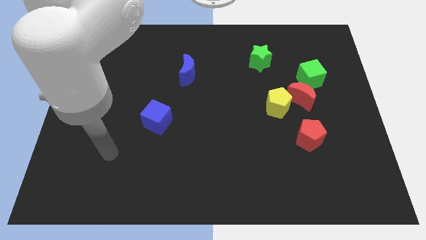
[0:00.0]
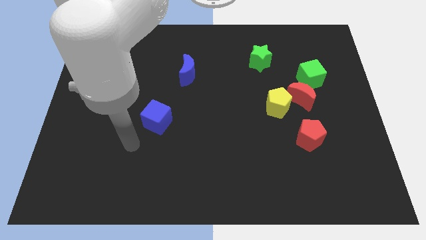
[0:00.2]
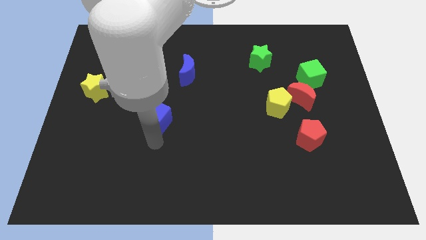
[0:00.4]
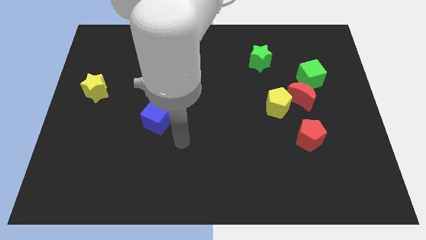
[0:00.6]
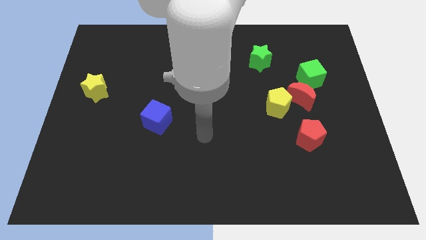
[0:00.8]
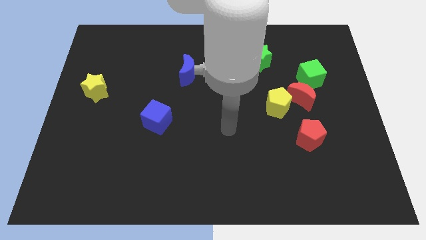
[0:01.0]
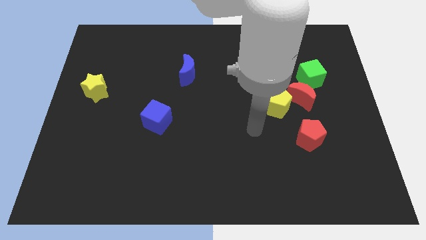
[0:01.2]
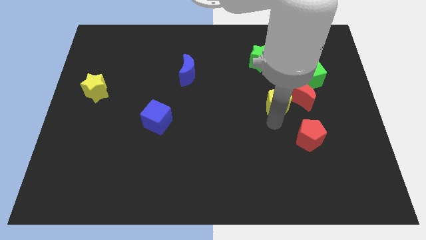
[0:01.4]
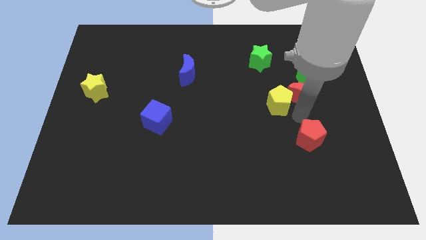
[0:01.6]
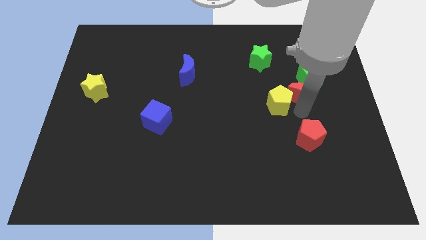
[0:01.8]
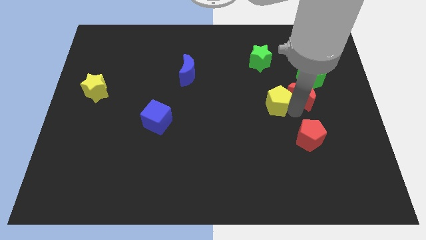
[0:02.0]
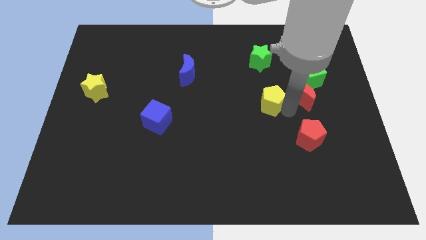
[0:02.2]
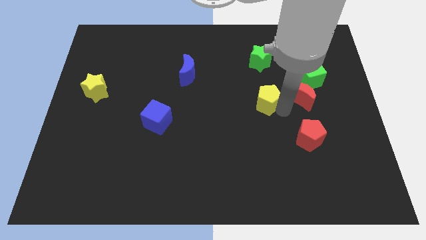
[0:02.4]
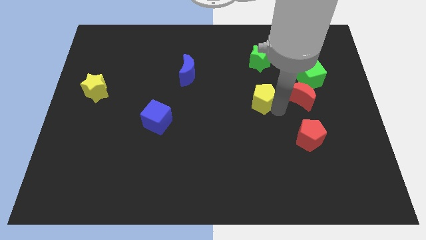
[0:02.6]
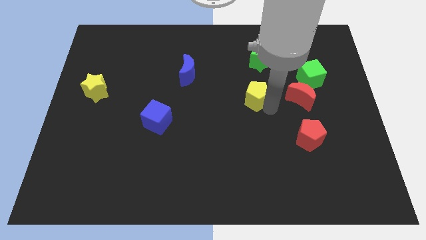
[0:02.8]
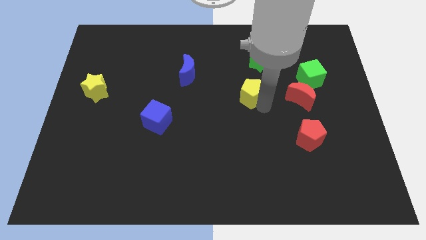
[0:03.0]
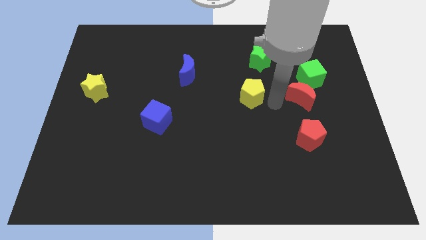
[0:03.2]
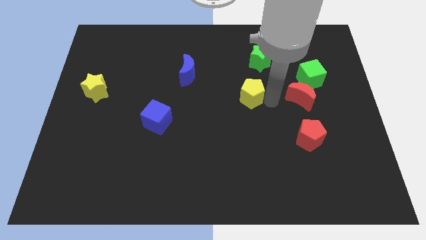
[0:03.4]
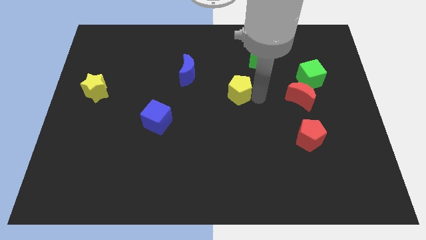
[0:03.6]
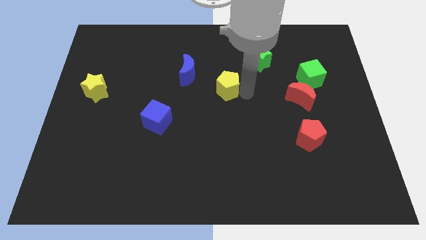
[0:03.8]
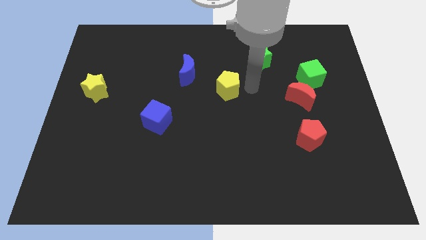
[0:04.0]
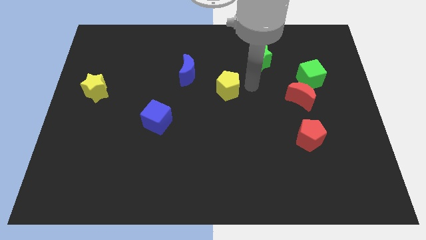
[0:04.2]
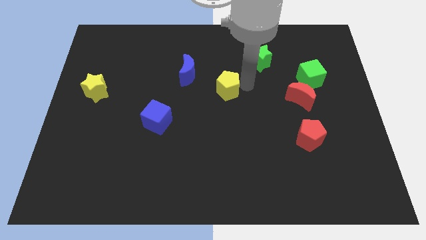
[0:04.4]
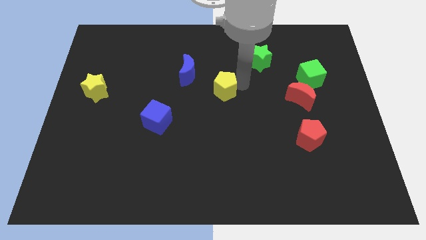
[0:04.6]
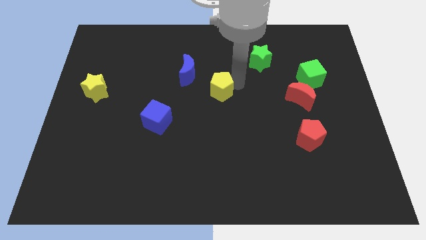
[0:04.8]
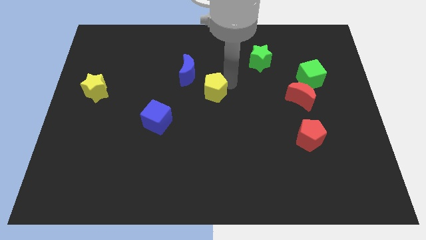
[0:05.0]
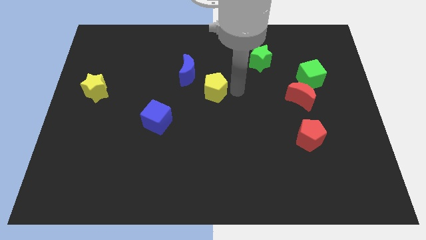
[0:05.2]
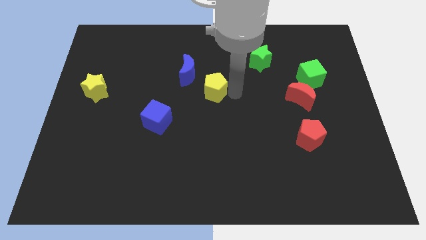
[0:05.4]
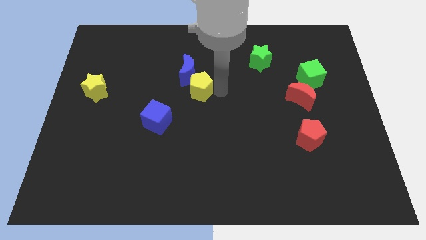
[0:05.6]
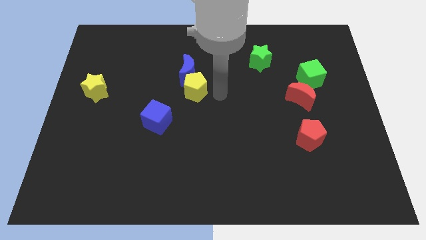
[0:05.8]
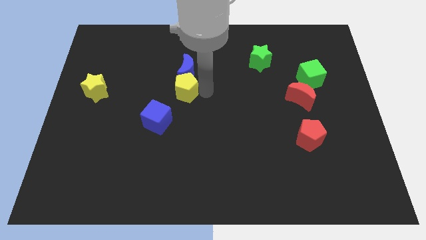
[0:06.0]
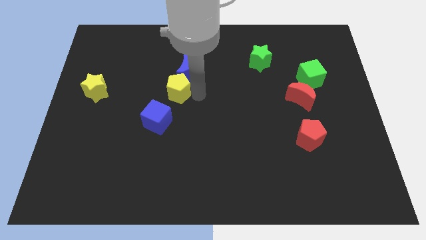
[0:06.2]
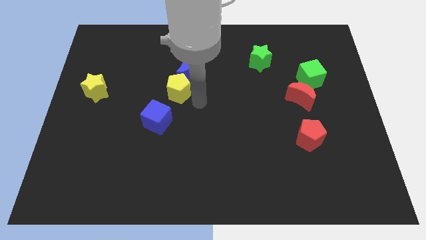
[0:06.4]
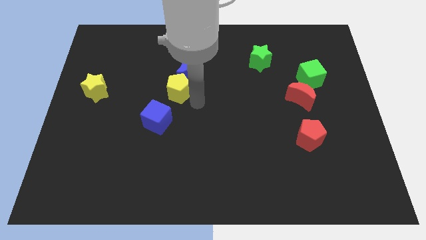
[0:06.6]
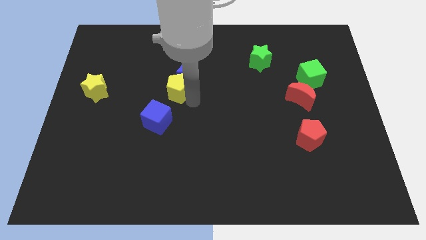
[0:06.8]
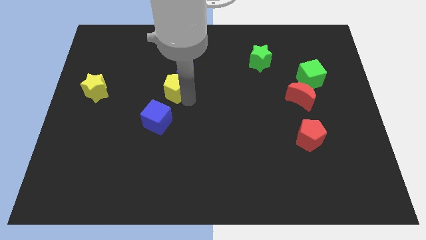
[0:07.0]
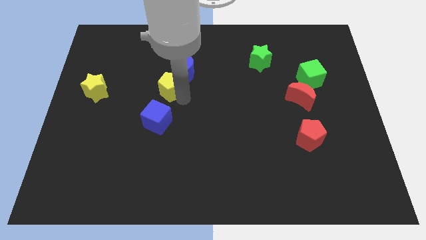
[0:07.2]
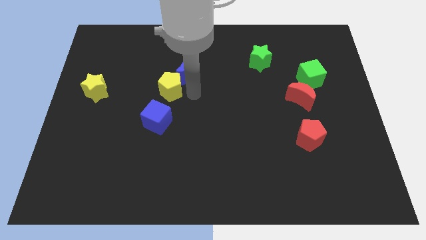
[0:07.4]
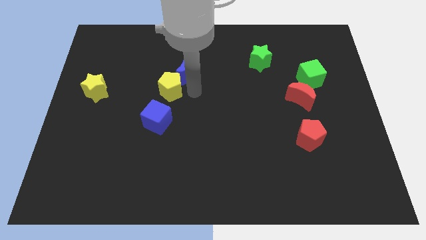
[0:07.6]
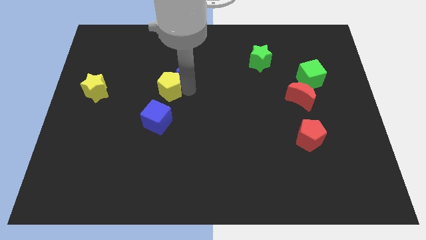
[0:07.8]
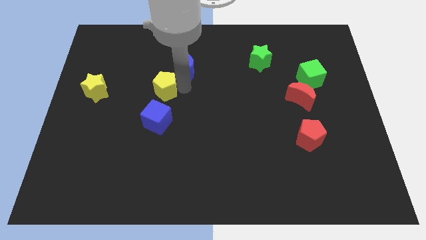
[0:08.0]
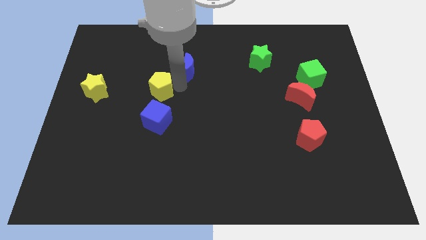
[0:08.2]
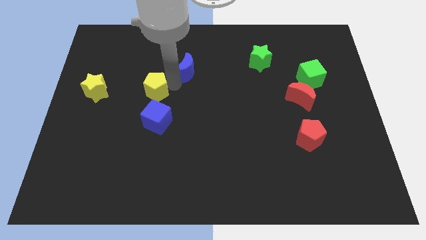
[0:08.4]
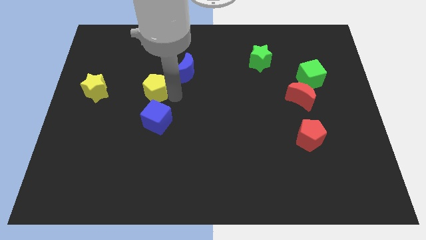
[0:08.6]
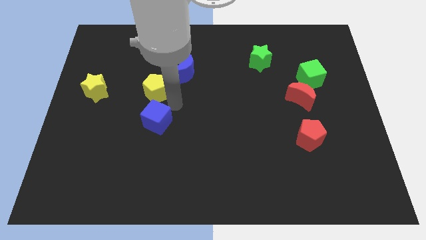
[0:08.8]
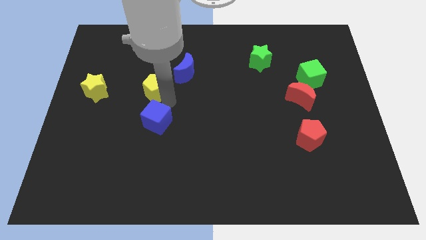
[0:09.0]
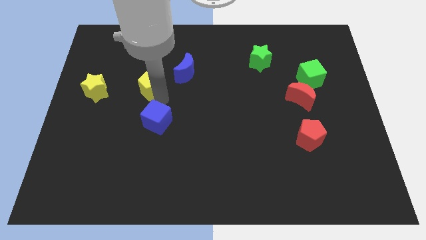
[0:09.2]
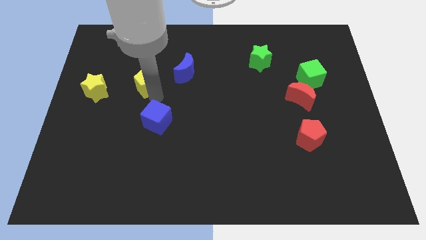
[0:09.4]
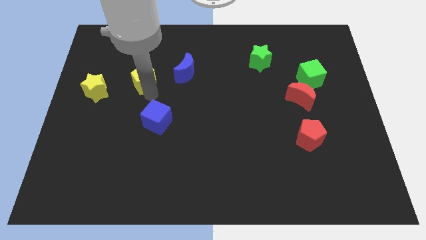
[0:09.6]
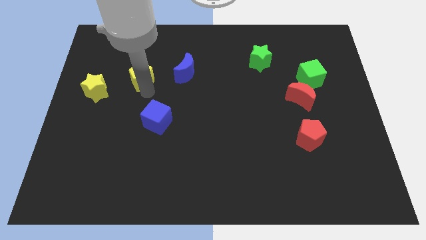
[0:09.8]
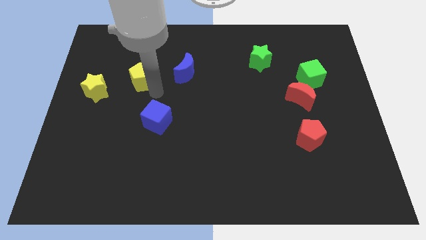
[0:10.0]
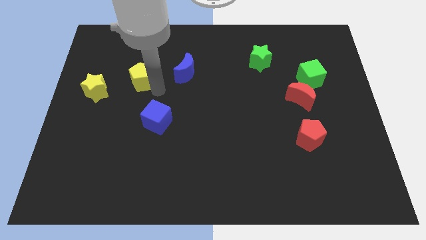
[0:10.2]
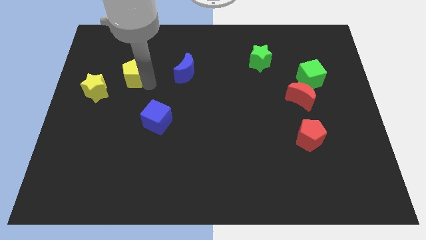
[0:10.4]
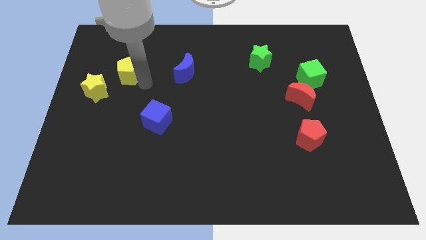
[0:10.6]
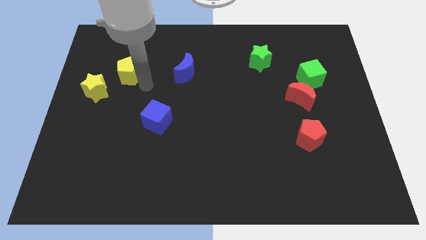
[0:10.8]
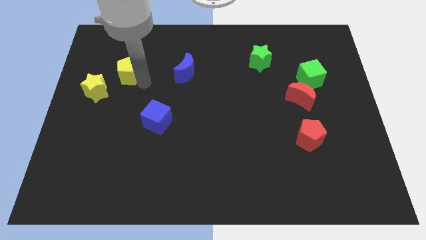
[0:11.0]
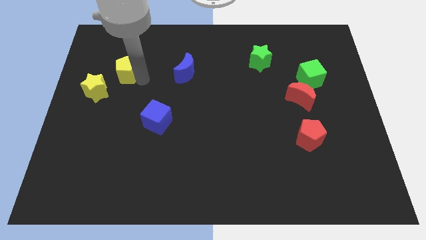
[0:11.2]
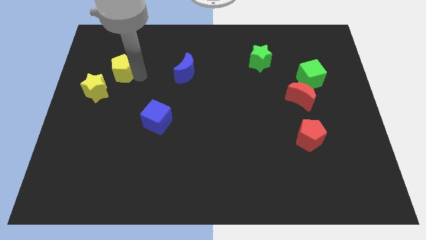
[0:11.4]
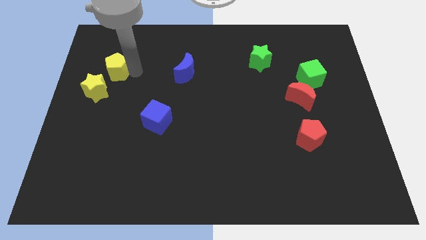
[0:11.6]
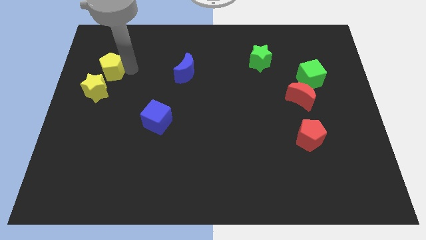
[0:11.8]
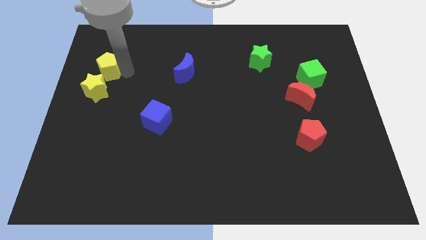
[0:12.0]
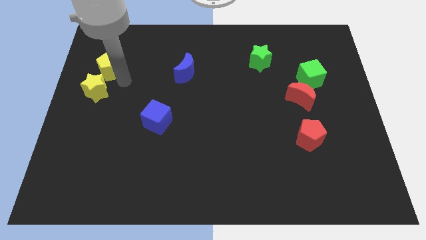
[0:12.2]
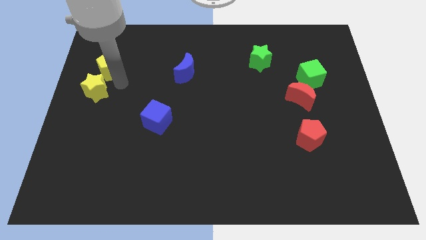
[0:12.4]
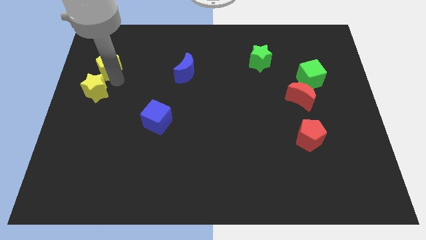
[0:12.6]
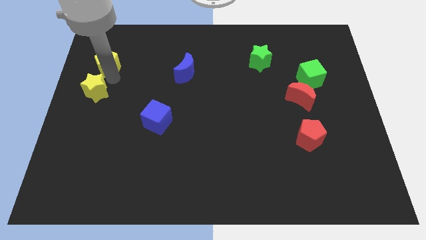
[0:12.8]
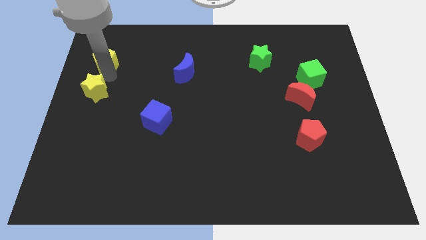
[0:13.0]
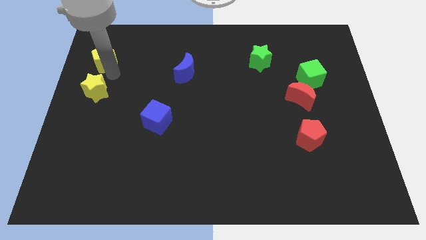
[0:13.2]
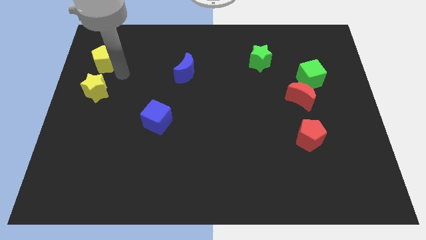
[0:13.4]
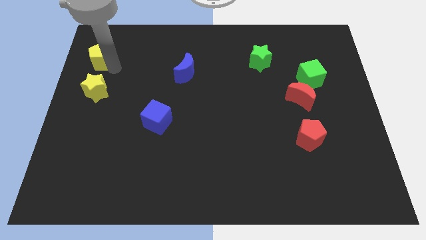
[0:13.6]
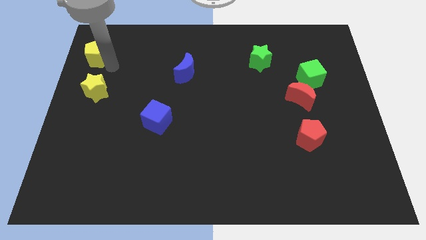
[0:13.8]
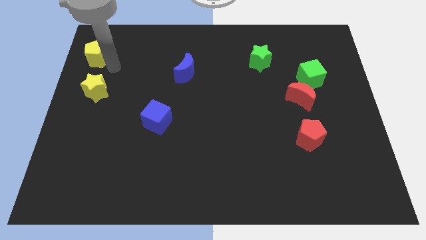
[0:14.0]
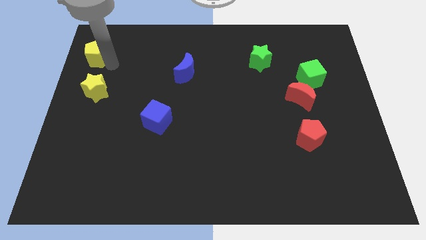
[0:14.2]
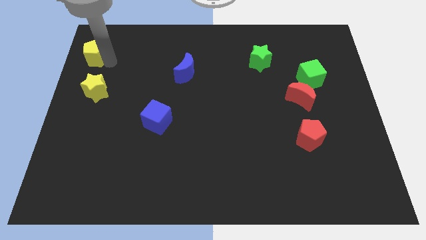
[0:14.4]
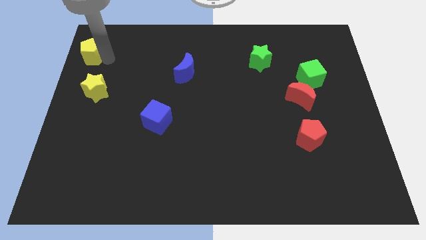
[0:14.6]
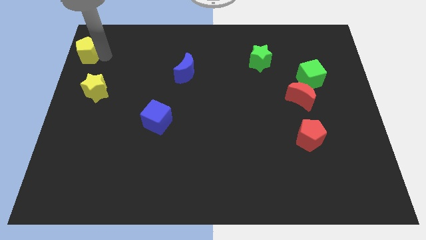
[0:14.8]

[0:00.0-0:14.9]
move the yellow pentagon to the top left of the board
